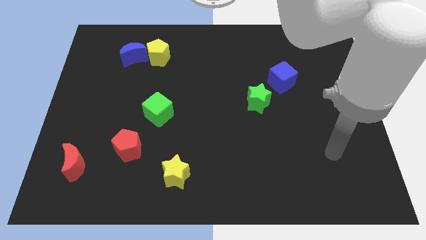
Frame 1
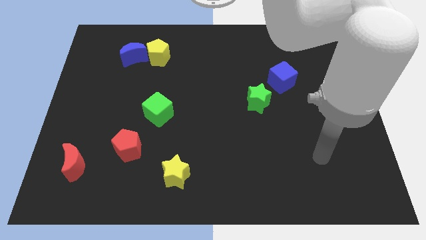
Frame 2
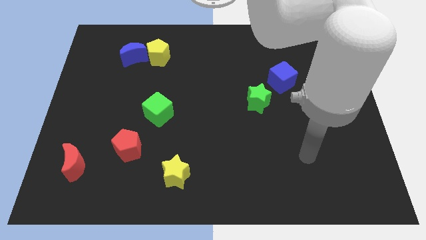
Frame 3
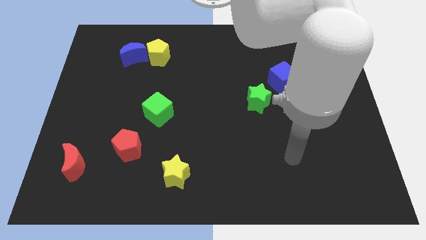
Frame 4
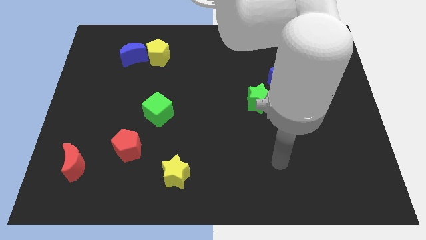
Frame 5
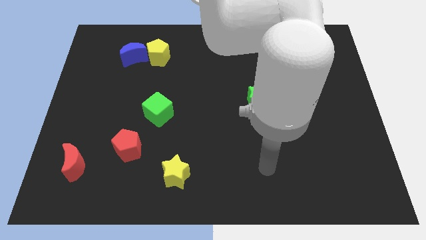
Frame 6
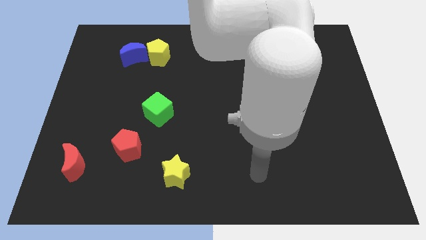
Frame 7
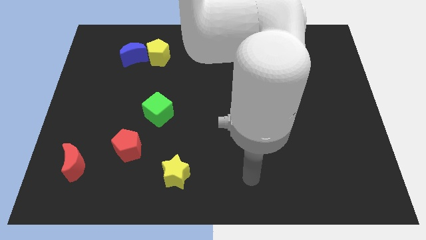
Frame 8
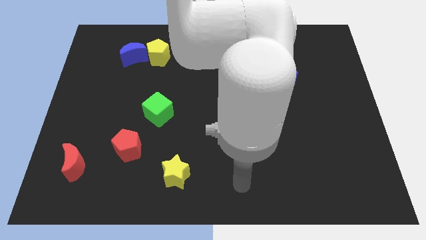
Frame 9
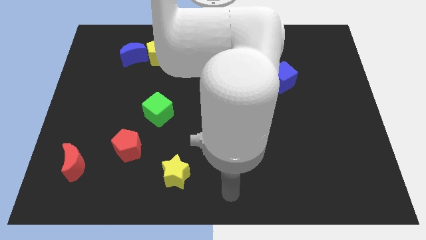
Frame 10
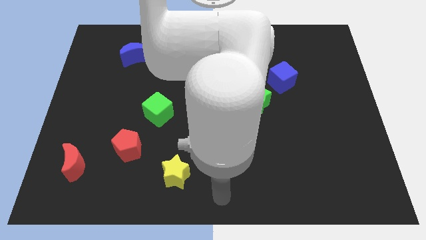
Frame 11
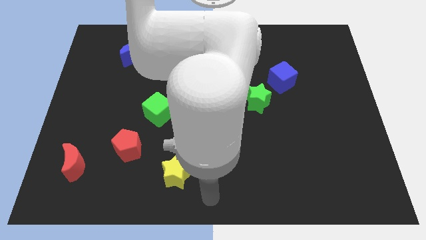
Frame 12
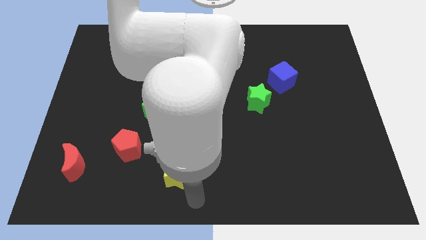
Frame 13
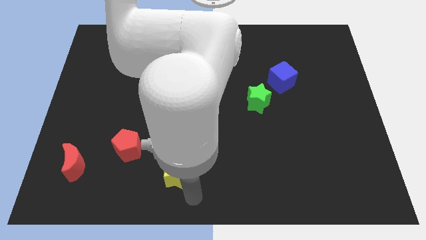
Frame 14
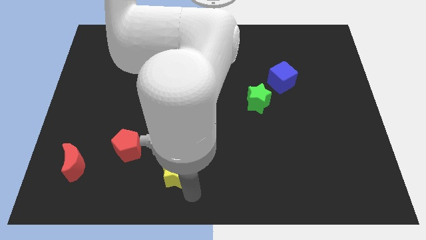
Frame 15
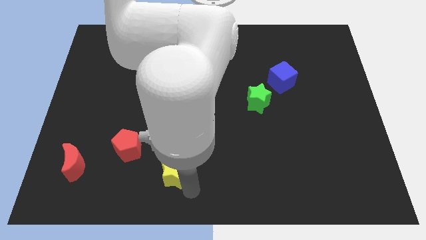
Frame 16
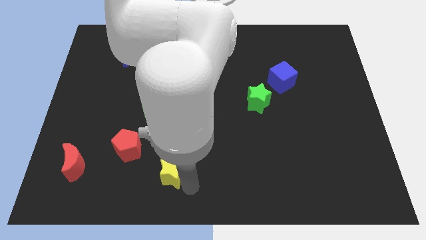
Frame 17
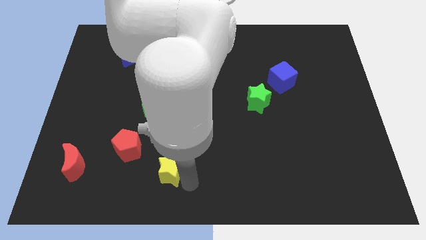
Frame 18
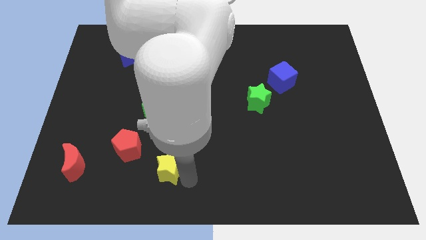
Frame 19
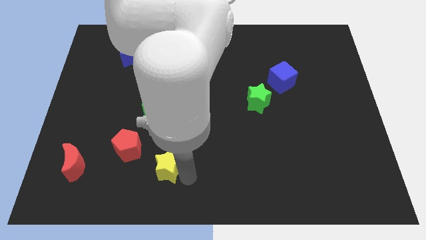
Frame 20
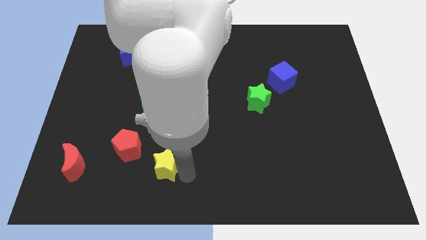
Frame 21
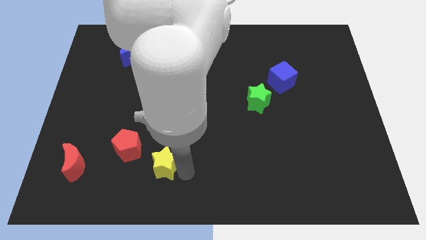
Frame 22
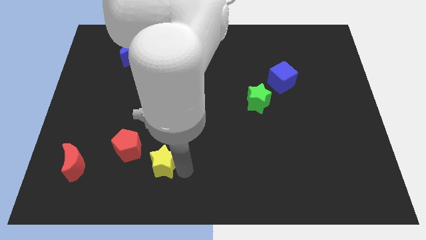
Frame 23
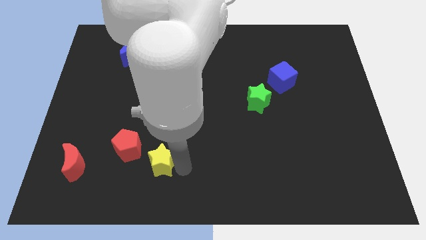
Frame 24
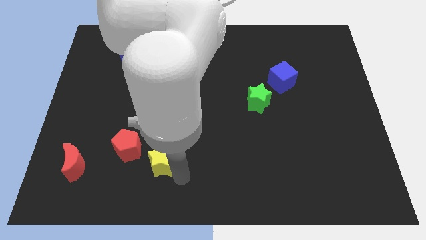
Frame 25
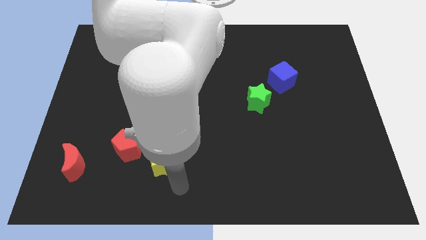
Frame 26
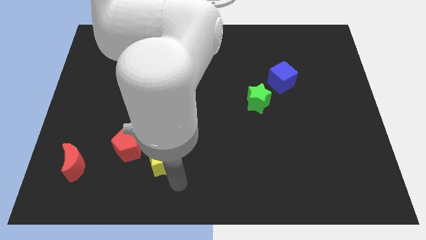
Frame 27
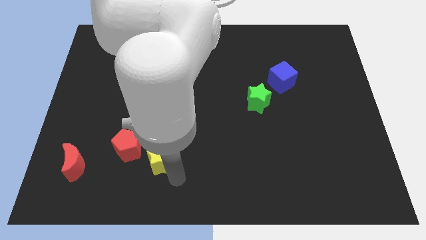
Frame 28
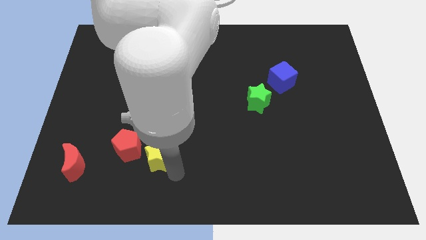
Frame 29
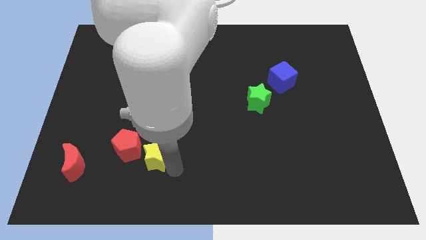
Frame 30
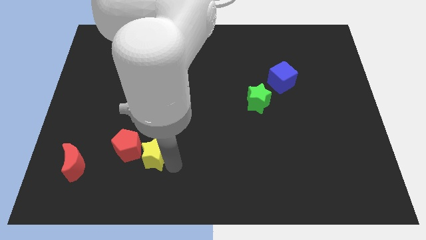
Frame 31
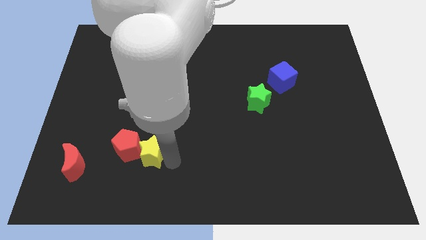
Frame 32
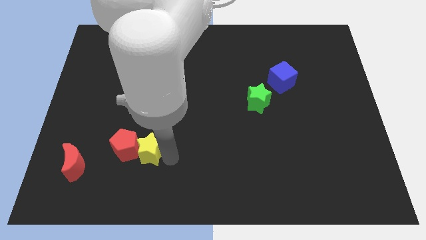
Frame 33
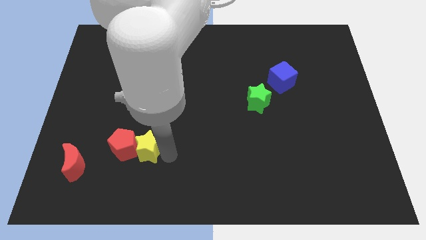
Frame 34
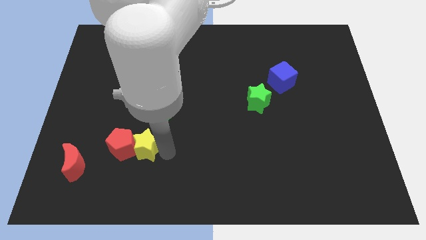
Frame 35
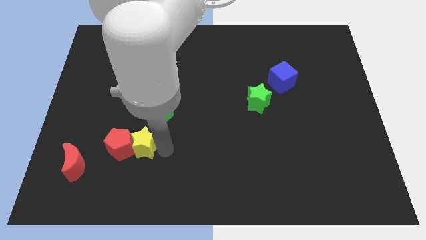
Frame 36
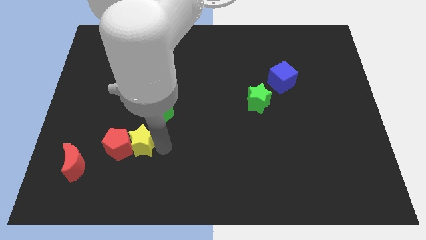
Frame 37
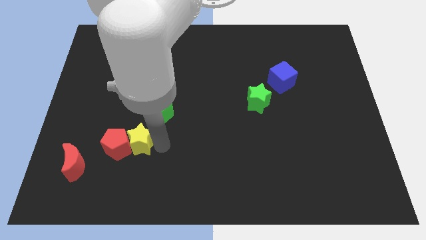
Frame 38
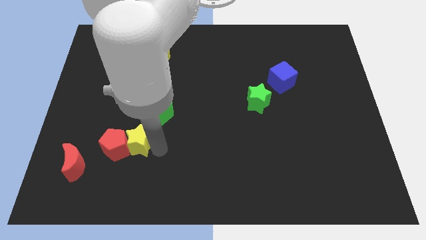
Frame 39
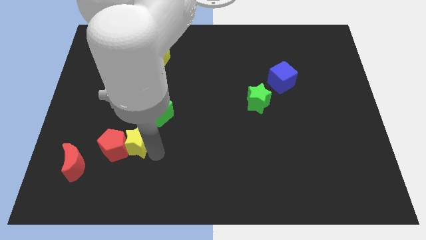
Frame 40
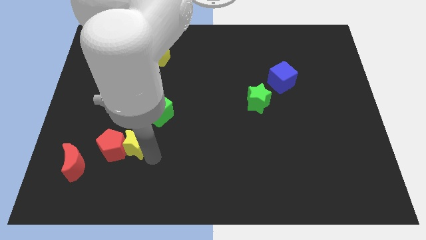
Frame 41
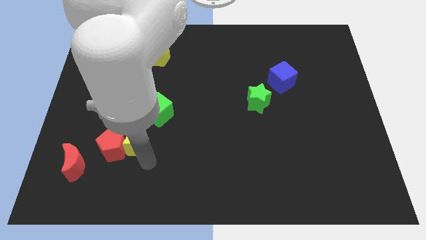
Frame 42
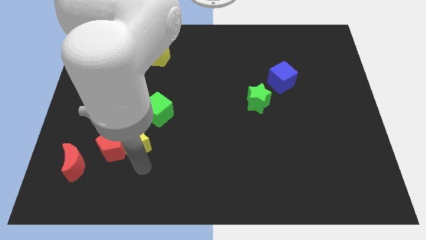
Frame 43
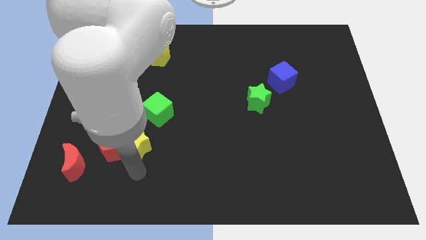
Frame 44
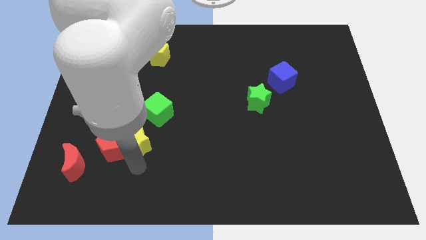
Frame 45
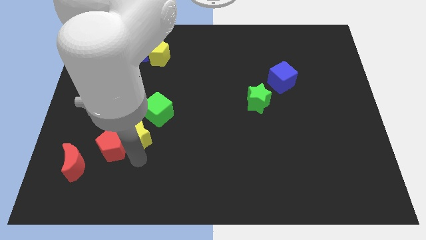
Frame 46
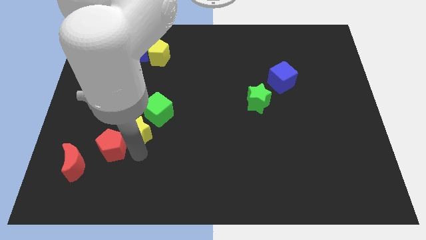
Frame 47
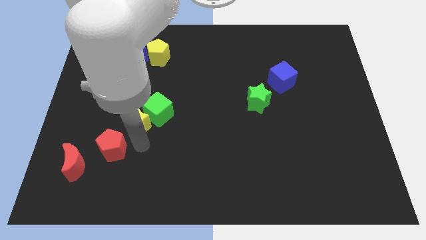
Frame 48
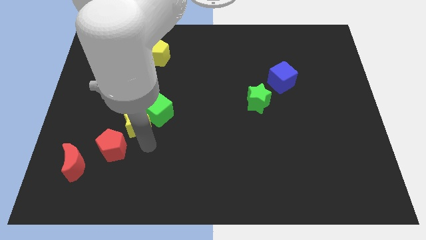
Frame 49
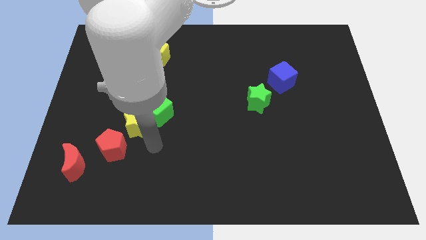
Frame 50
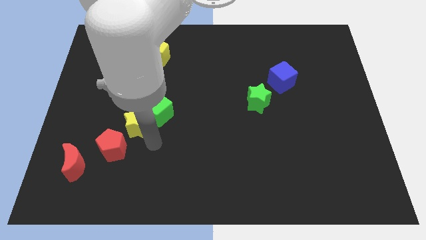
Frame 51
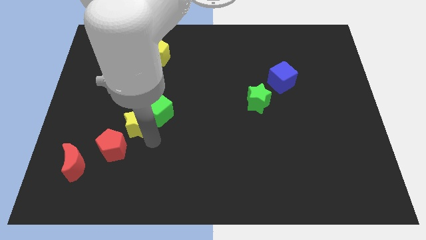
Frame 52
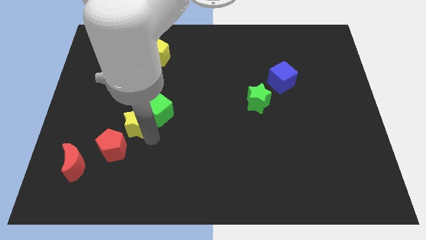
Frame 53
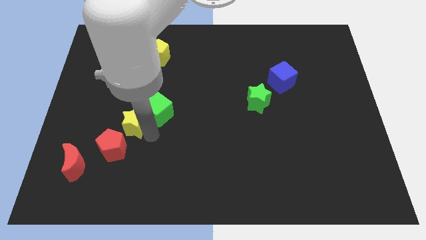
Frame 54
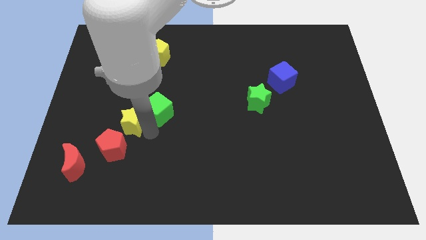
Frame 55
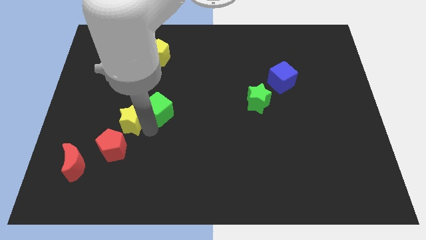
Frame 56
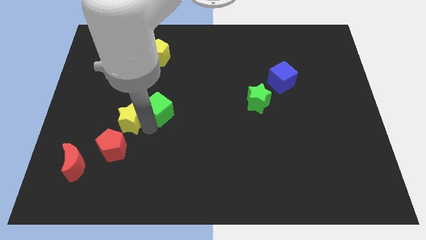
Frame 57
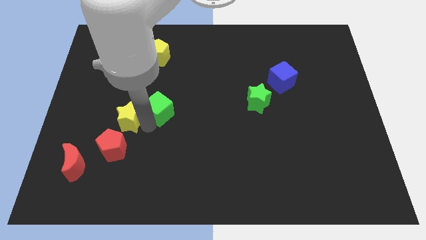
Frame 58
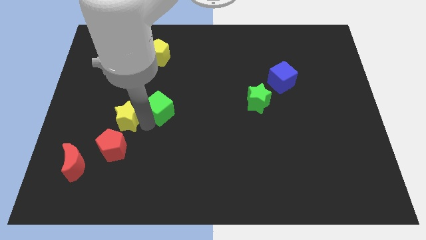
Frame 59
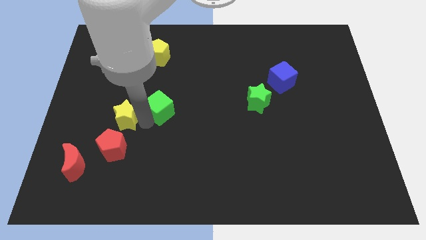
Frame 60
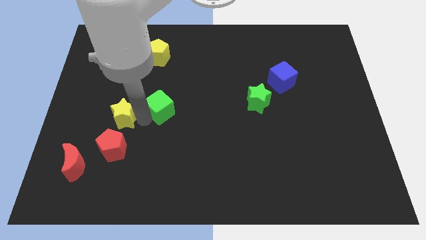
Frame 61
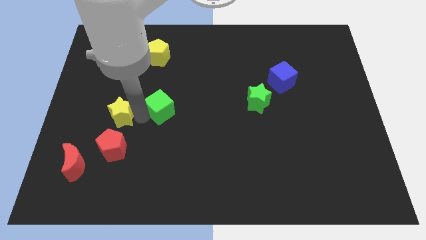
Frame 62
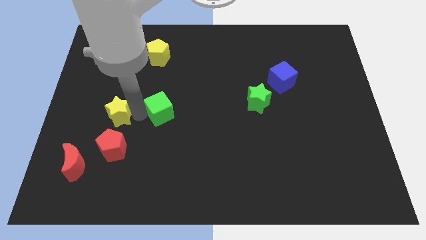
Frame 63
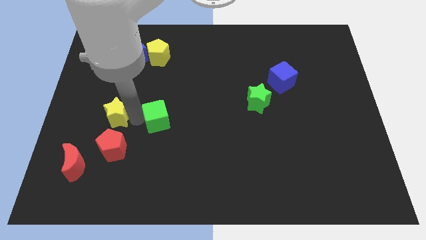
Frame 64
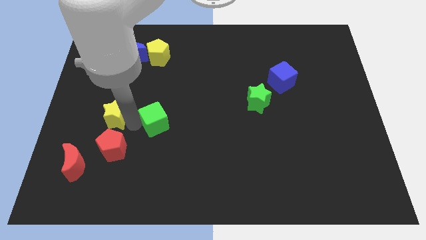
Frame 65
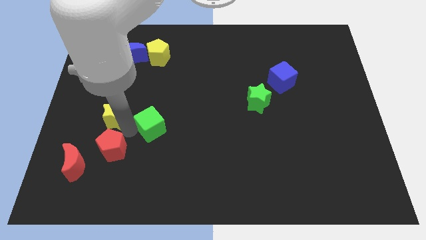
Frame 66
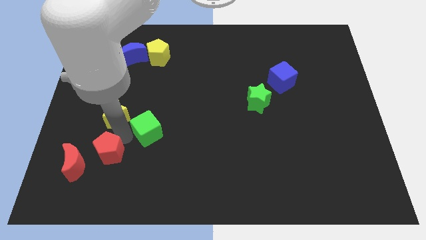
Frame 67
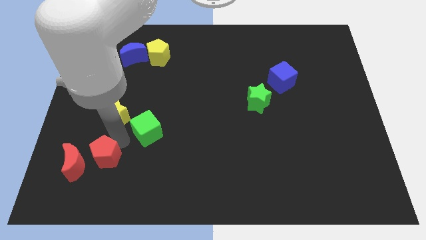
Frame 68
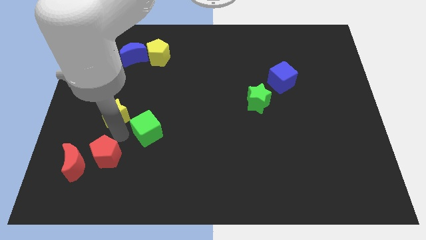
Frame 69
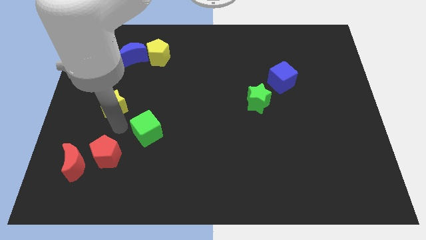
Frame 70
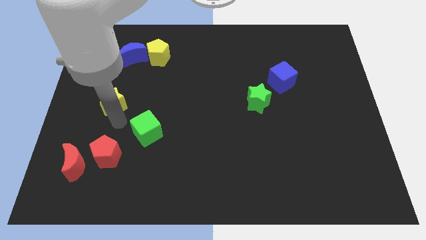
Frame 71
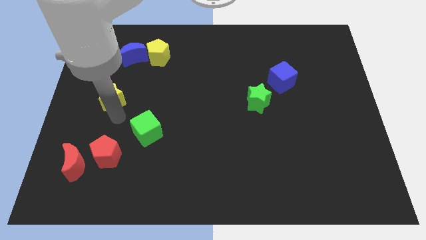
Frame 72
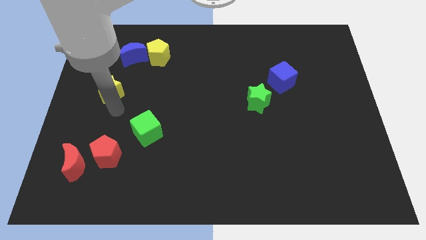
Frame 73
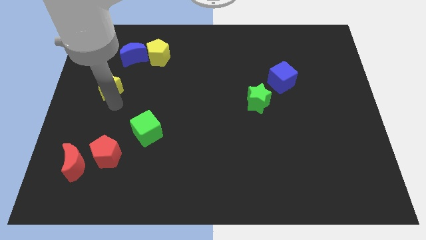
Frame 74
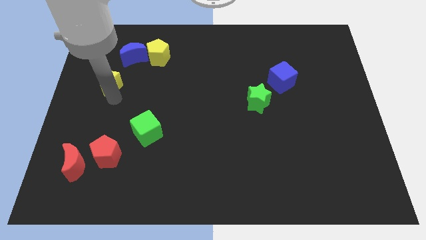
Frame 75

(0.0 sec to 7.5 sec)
push the yellow star to the bottom left side of the blue moon
